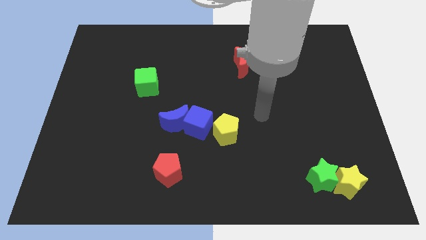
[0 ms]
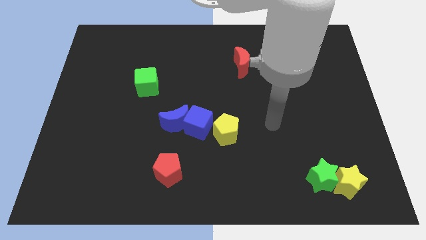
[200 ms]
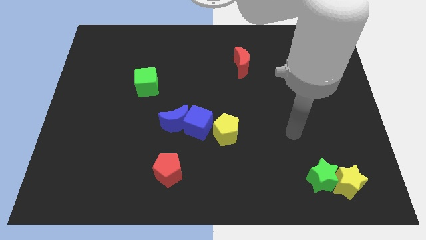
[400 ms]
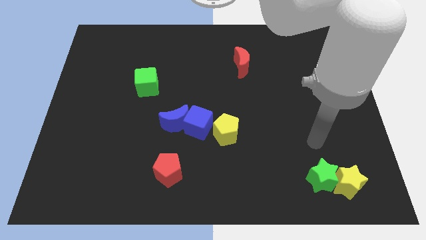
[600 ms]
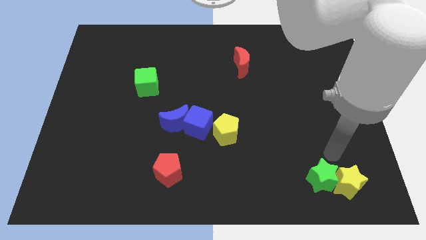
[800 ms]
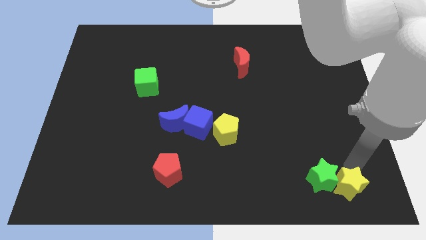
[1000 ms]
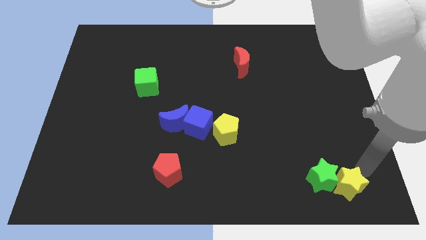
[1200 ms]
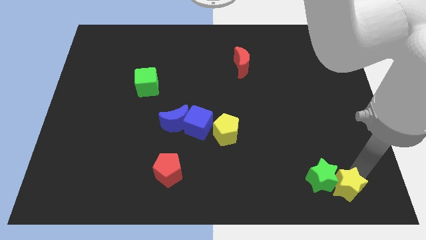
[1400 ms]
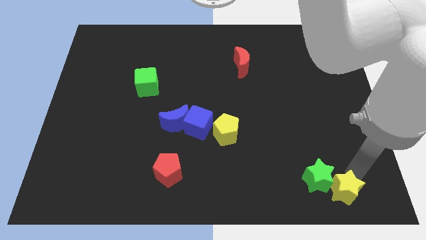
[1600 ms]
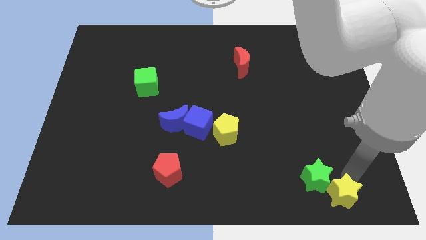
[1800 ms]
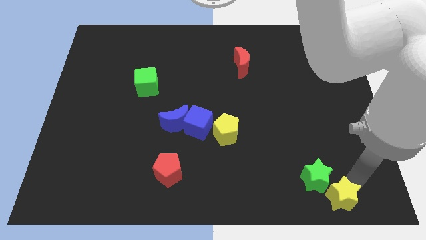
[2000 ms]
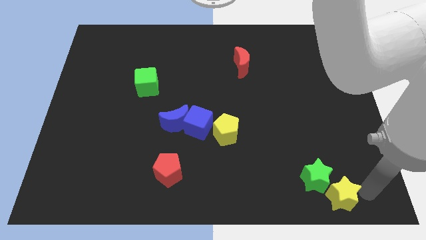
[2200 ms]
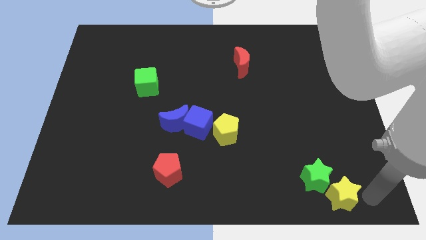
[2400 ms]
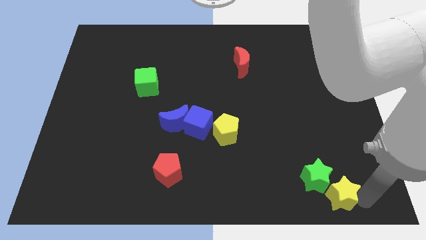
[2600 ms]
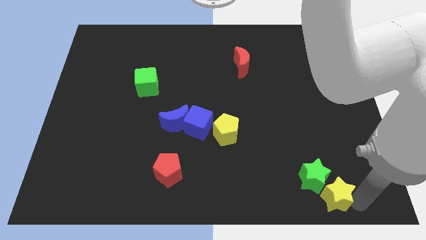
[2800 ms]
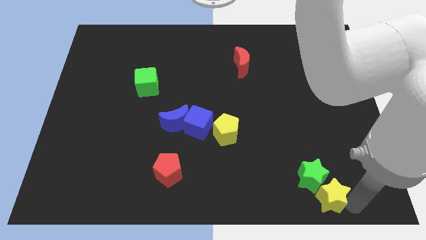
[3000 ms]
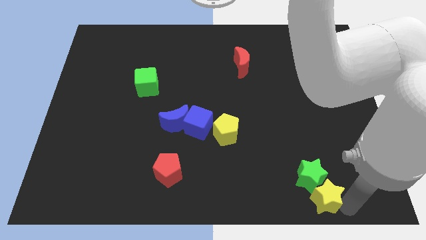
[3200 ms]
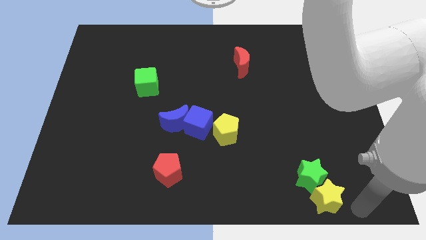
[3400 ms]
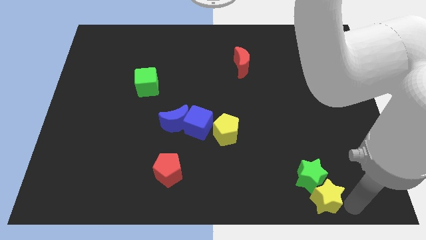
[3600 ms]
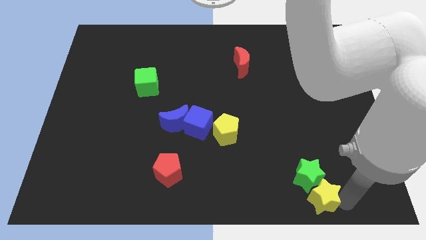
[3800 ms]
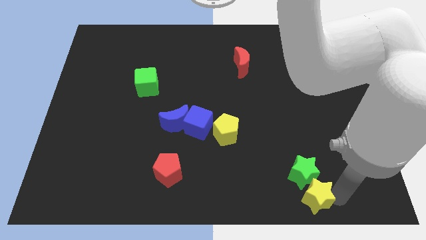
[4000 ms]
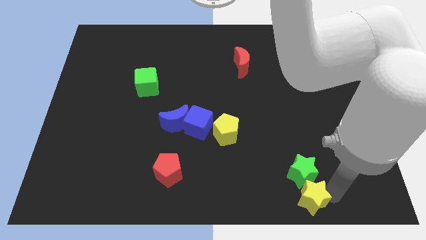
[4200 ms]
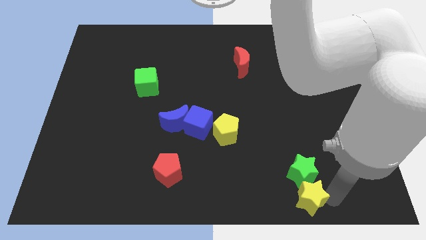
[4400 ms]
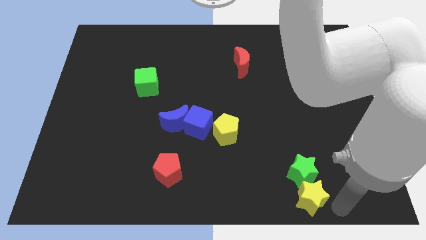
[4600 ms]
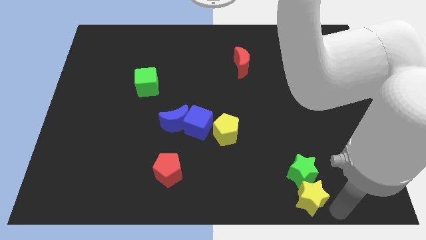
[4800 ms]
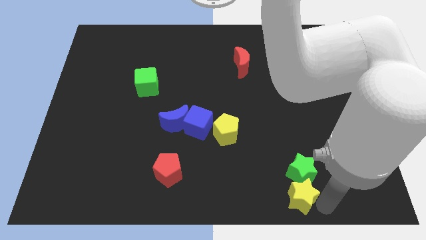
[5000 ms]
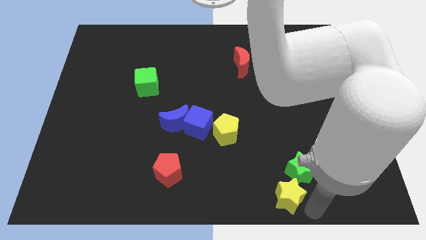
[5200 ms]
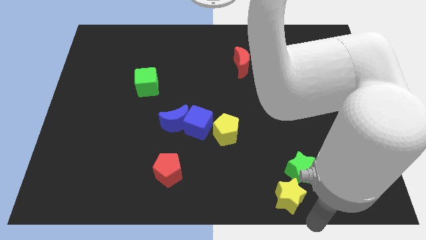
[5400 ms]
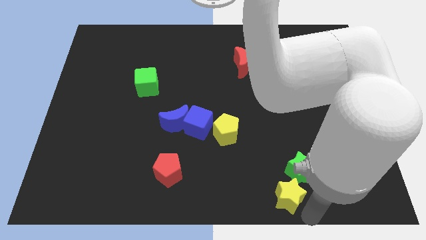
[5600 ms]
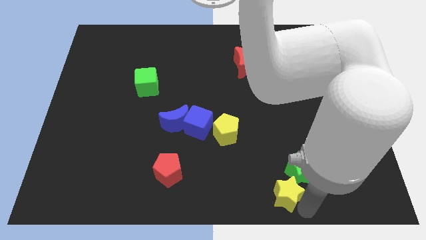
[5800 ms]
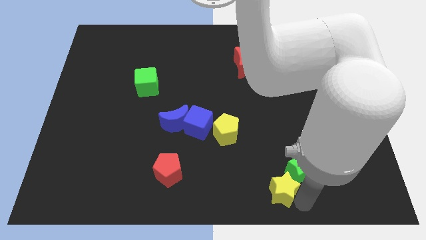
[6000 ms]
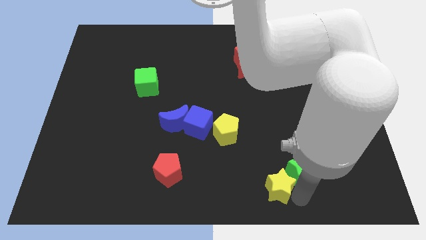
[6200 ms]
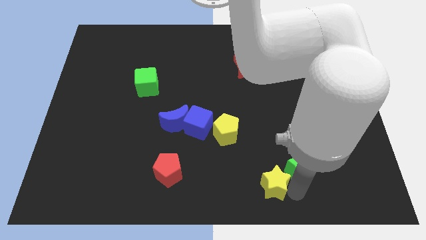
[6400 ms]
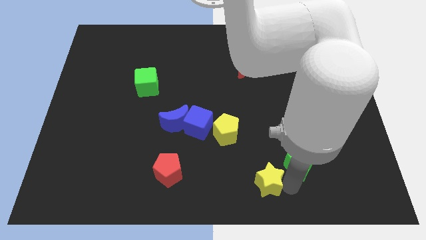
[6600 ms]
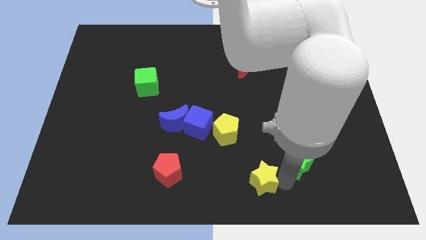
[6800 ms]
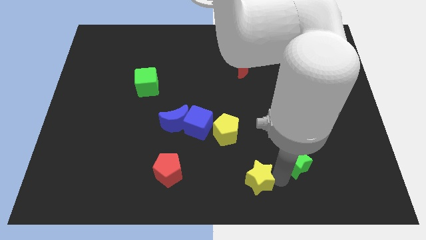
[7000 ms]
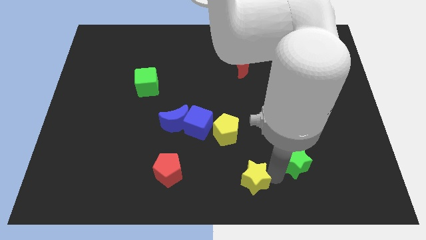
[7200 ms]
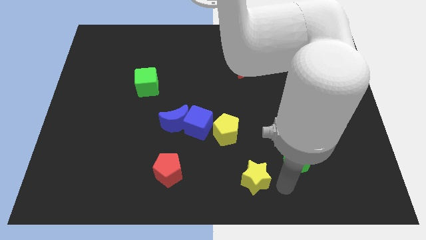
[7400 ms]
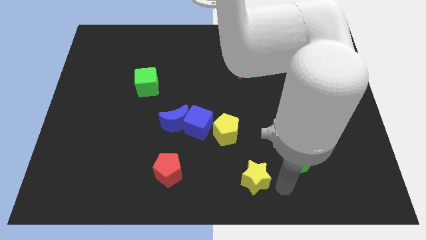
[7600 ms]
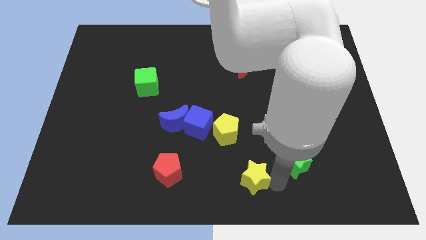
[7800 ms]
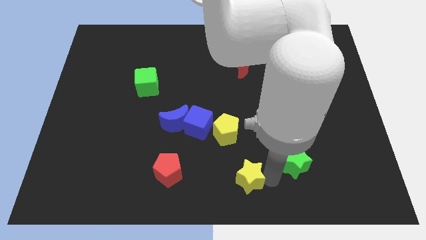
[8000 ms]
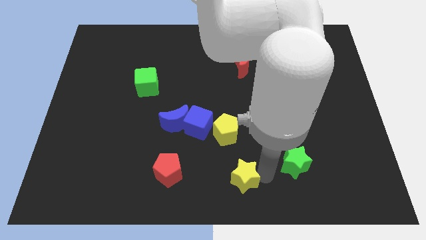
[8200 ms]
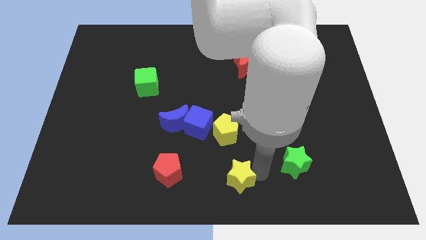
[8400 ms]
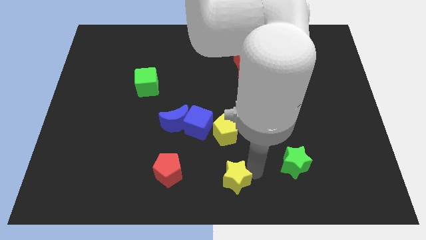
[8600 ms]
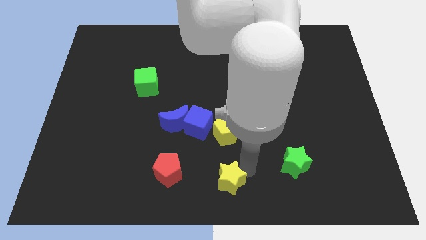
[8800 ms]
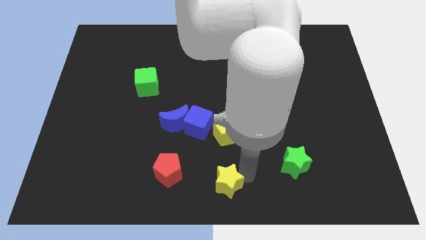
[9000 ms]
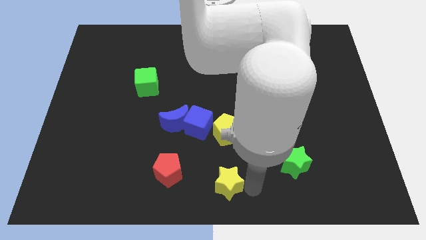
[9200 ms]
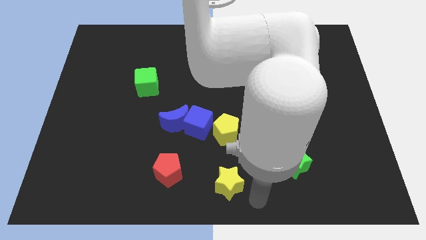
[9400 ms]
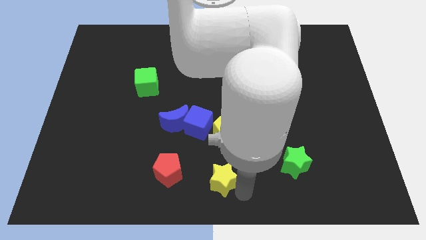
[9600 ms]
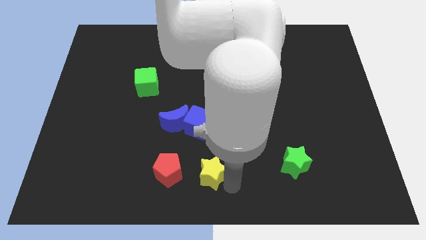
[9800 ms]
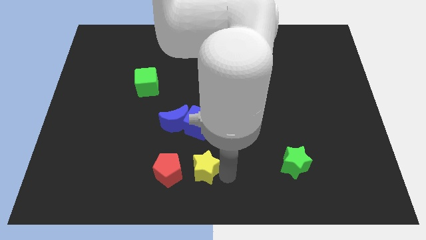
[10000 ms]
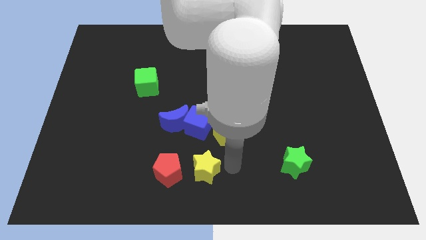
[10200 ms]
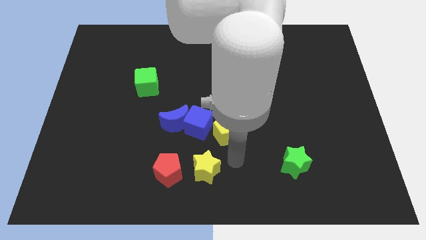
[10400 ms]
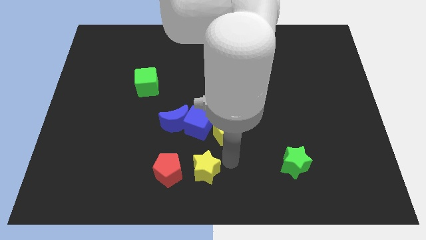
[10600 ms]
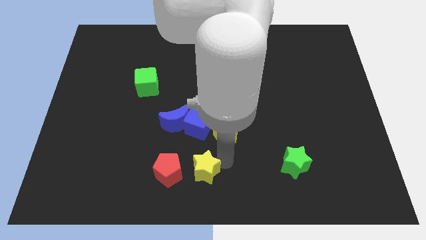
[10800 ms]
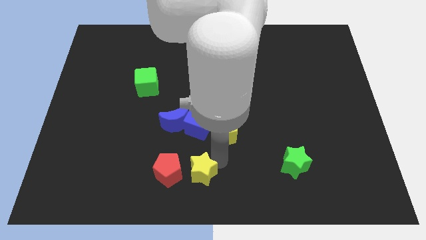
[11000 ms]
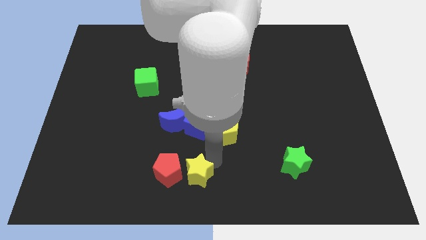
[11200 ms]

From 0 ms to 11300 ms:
slide the yellow star close to the red pentagon

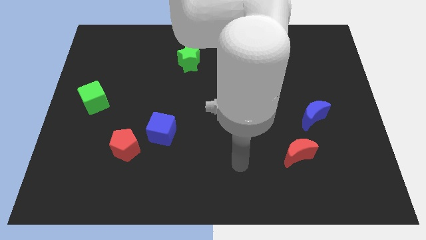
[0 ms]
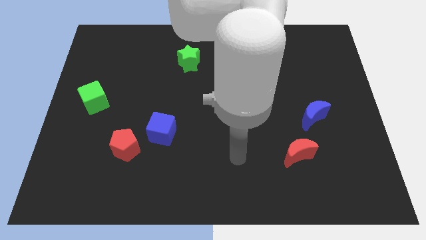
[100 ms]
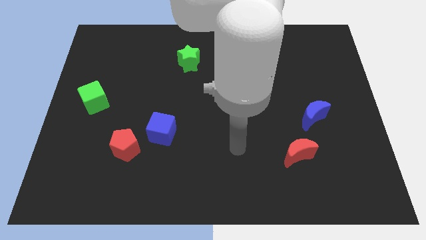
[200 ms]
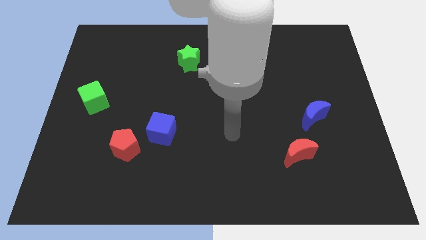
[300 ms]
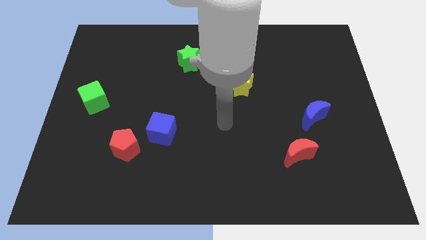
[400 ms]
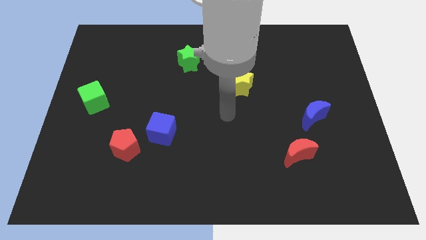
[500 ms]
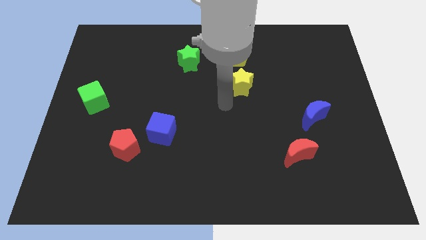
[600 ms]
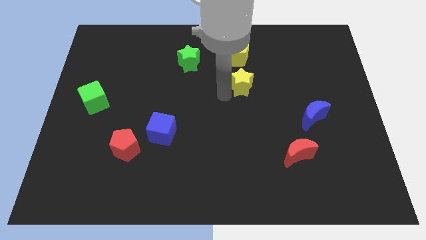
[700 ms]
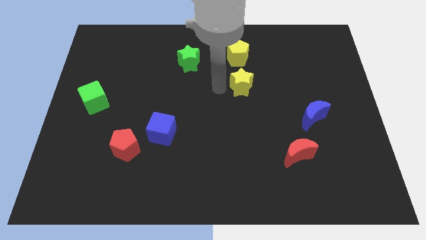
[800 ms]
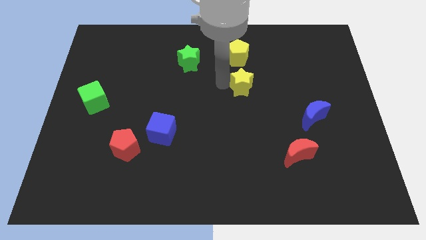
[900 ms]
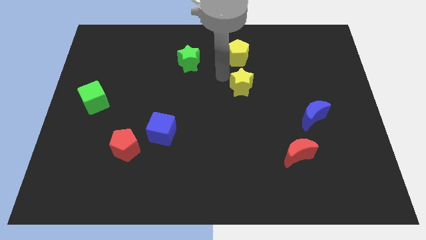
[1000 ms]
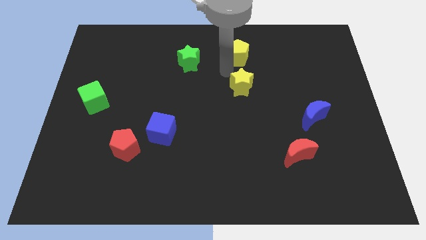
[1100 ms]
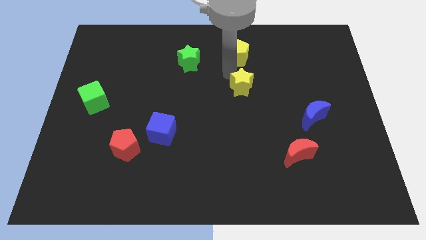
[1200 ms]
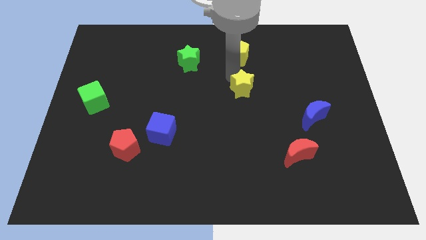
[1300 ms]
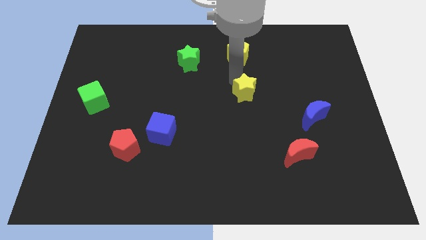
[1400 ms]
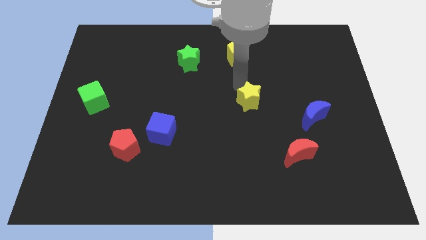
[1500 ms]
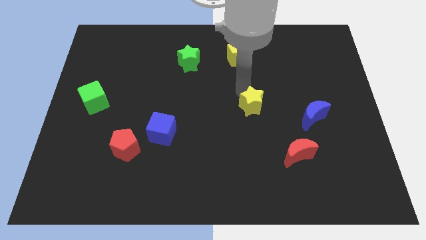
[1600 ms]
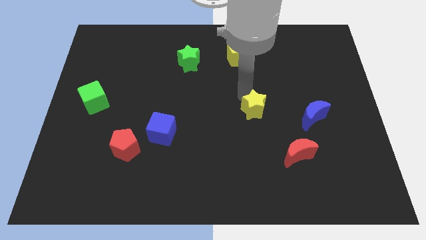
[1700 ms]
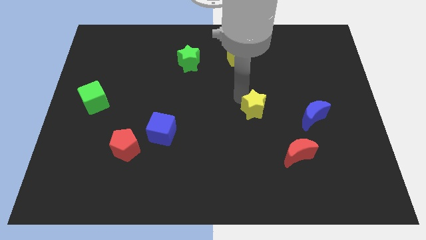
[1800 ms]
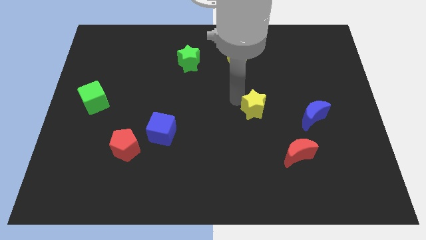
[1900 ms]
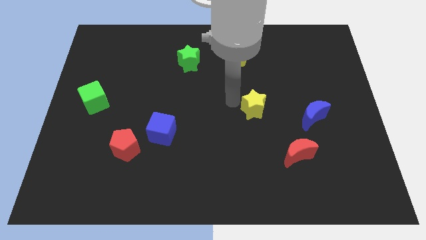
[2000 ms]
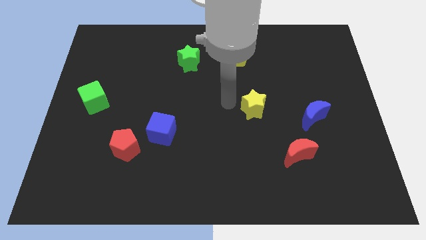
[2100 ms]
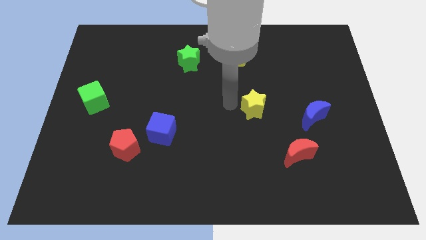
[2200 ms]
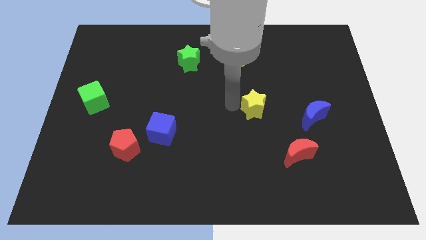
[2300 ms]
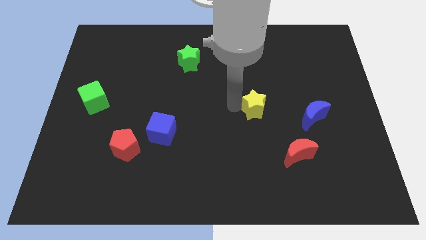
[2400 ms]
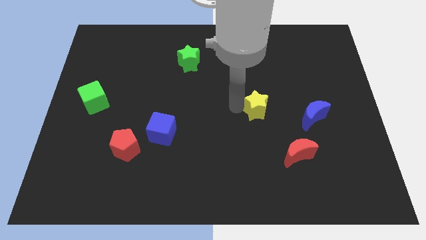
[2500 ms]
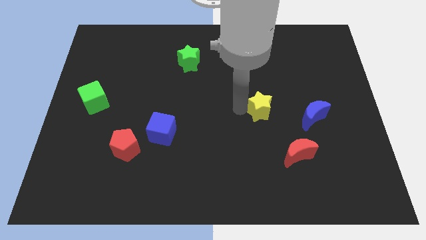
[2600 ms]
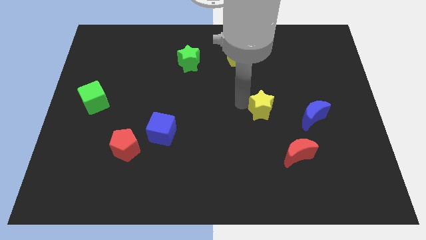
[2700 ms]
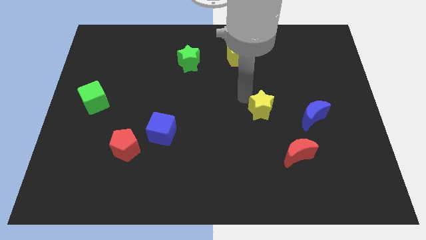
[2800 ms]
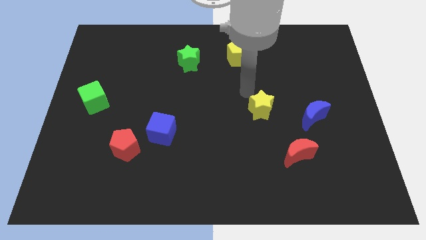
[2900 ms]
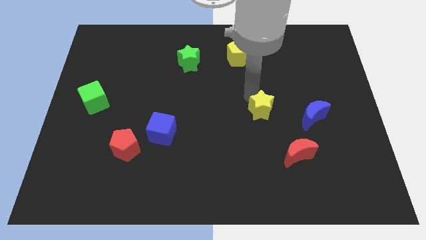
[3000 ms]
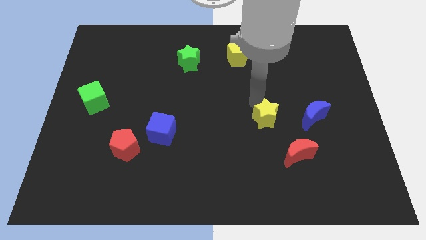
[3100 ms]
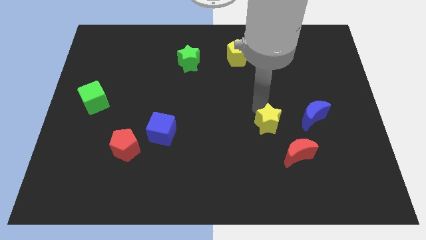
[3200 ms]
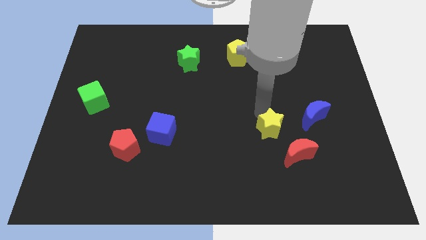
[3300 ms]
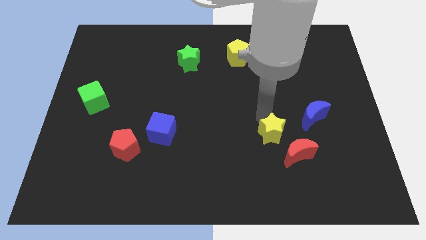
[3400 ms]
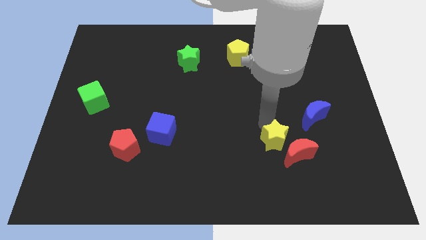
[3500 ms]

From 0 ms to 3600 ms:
push the yellow star close to the red moon
